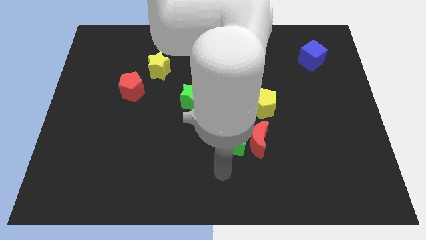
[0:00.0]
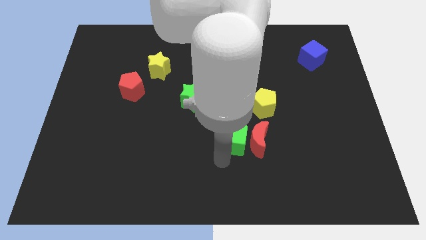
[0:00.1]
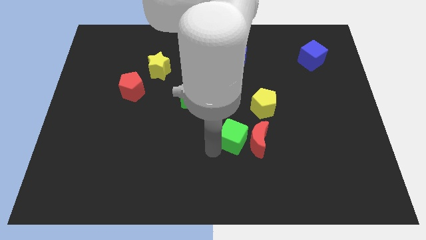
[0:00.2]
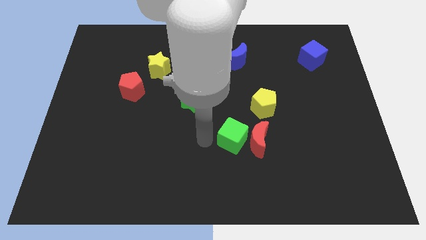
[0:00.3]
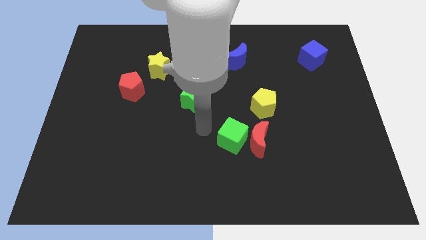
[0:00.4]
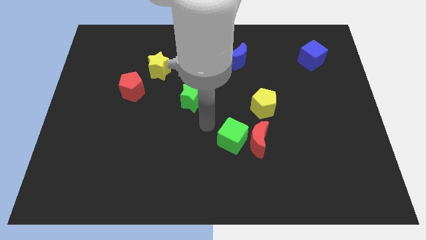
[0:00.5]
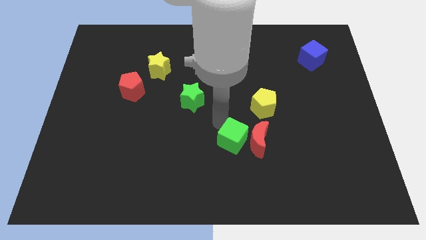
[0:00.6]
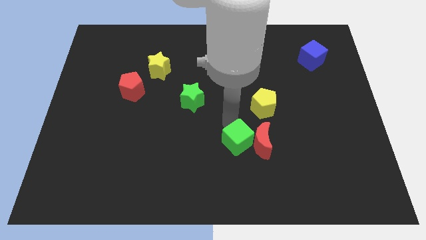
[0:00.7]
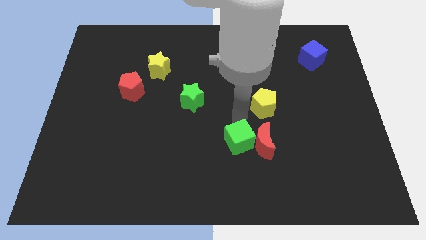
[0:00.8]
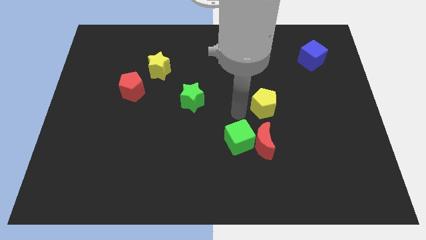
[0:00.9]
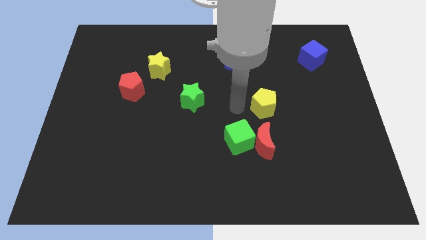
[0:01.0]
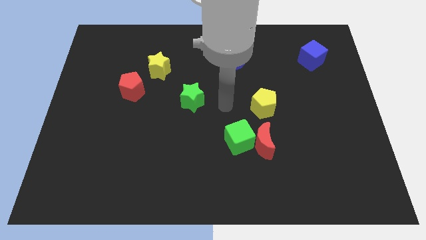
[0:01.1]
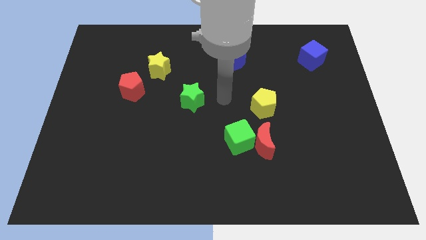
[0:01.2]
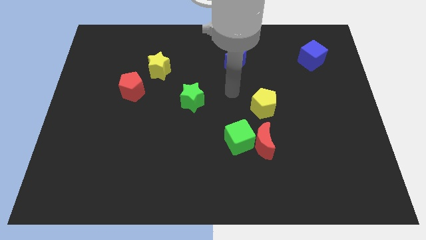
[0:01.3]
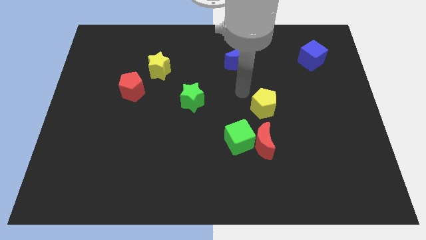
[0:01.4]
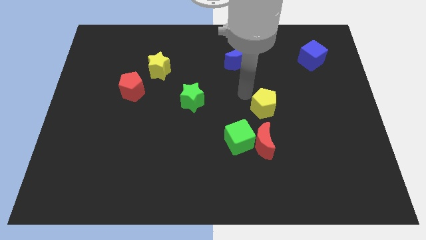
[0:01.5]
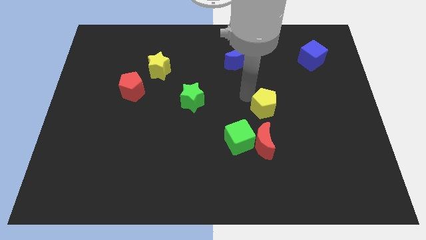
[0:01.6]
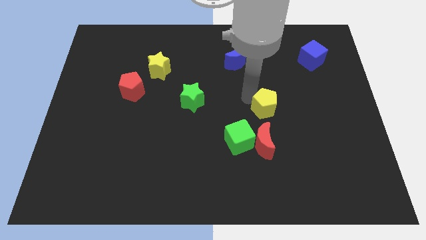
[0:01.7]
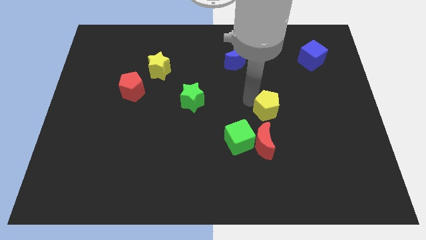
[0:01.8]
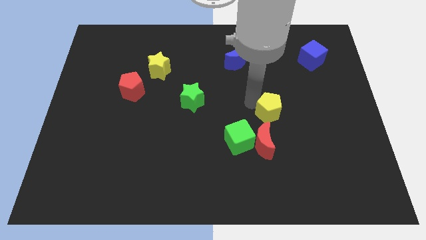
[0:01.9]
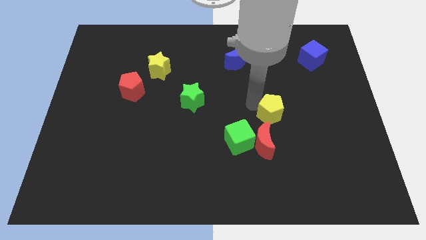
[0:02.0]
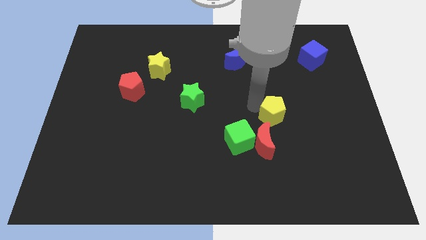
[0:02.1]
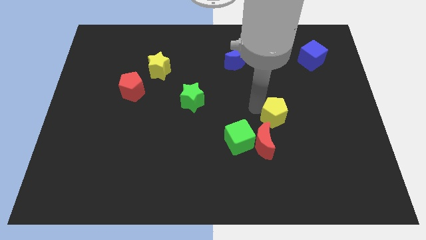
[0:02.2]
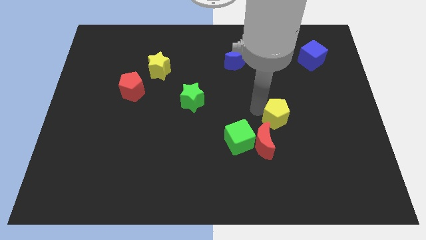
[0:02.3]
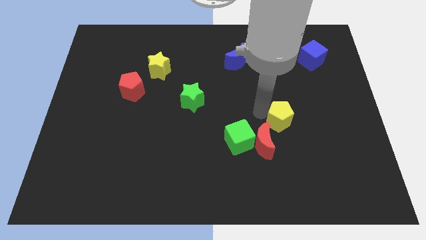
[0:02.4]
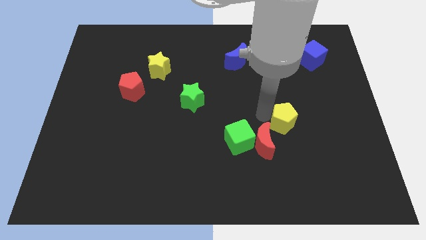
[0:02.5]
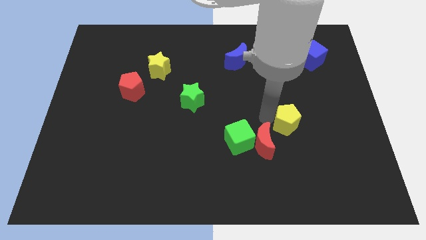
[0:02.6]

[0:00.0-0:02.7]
move the yellow pentagon a bit diagonally downwards and right

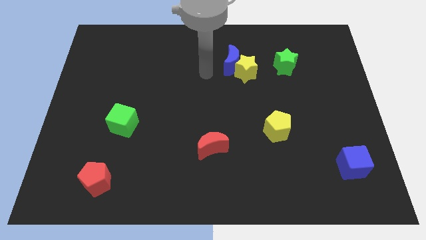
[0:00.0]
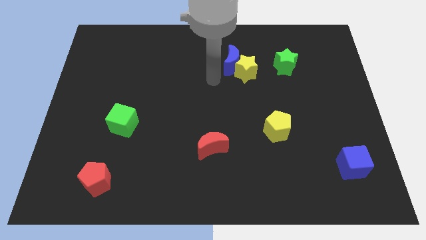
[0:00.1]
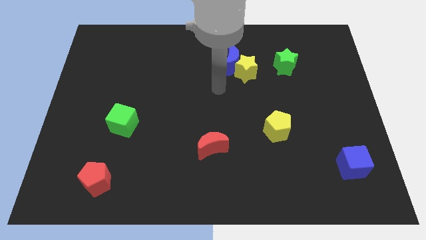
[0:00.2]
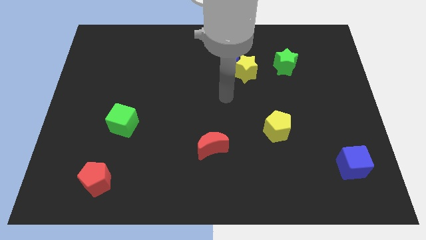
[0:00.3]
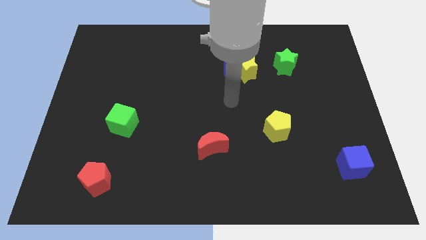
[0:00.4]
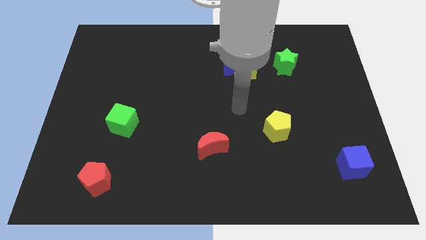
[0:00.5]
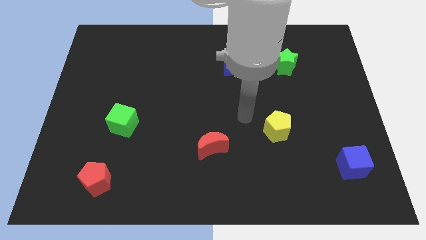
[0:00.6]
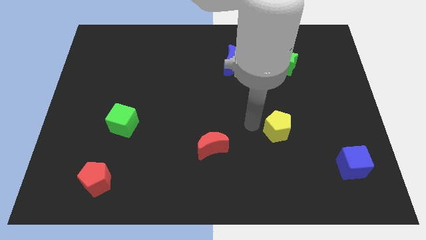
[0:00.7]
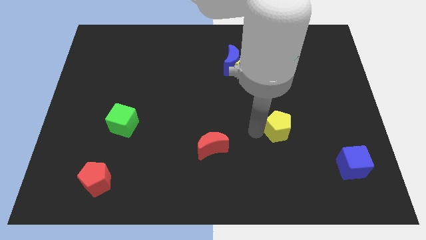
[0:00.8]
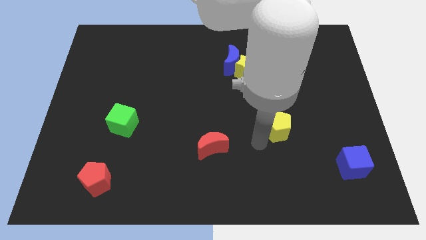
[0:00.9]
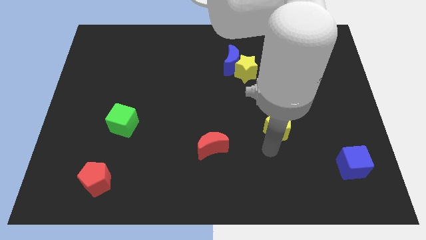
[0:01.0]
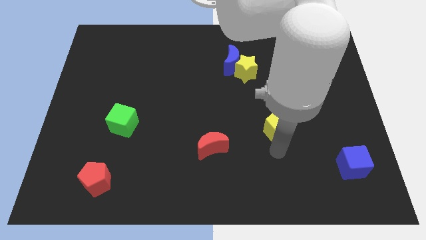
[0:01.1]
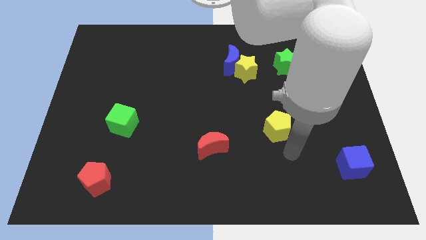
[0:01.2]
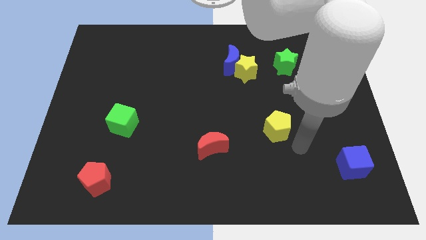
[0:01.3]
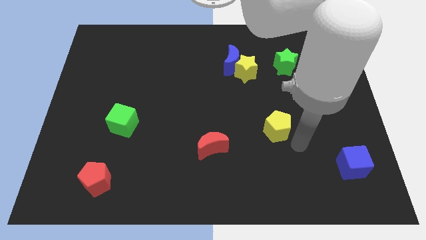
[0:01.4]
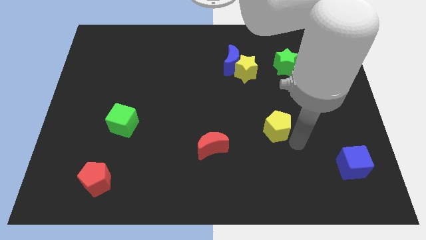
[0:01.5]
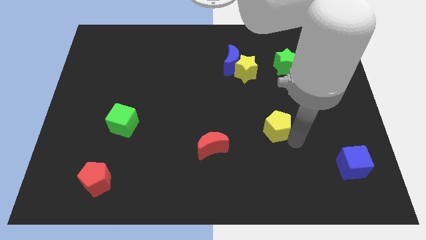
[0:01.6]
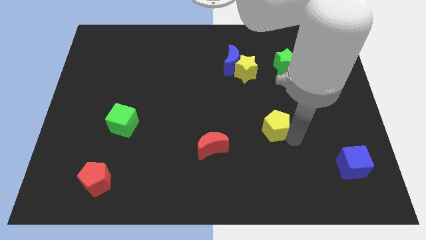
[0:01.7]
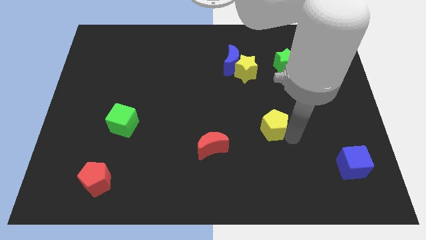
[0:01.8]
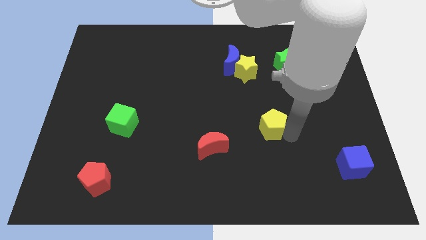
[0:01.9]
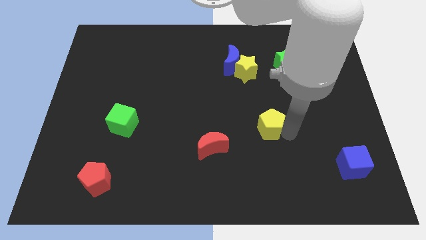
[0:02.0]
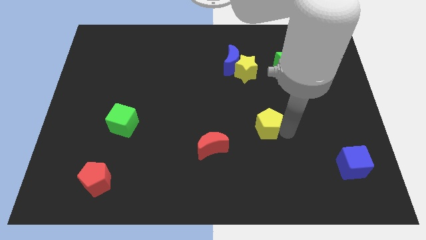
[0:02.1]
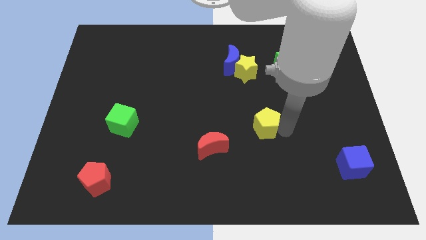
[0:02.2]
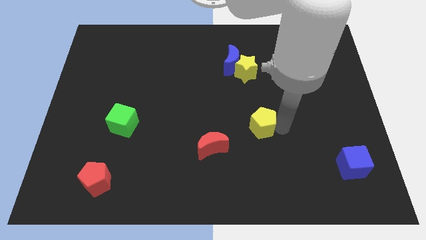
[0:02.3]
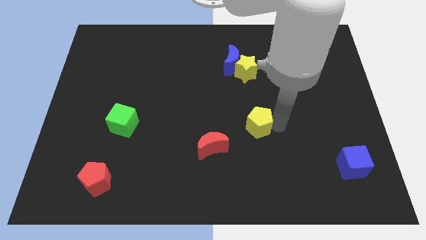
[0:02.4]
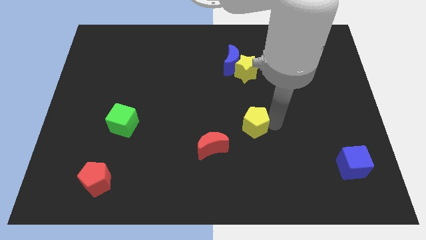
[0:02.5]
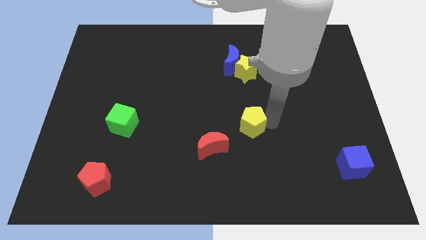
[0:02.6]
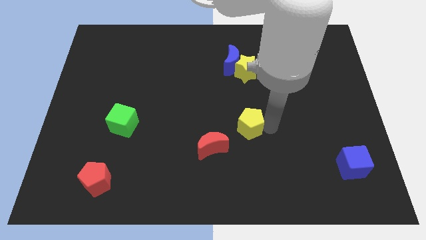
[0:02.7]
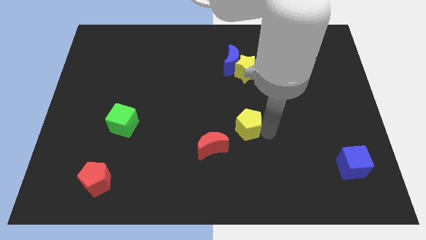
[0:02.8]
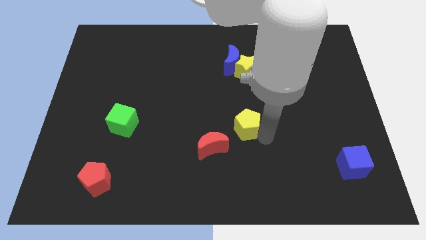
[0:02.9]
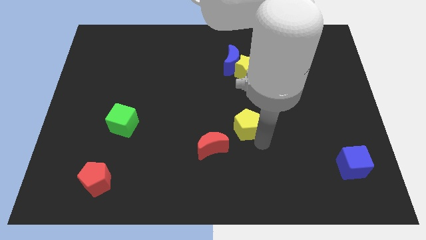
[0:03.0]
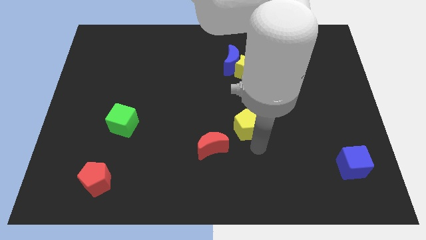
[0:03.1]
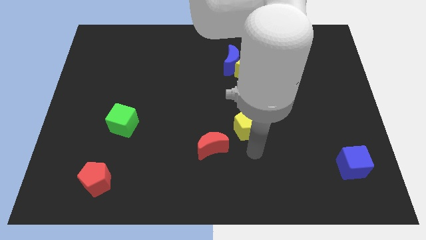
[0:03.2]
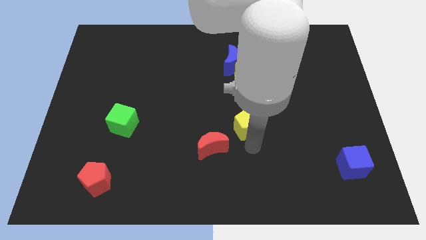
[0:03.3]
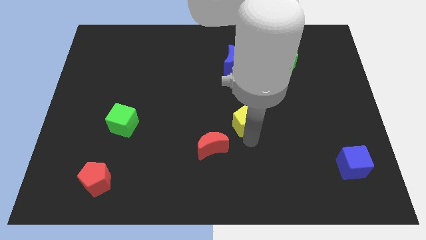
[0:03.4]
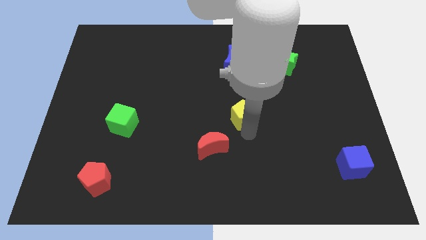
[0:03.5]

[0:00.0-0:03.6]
move the yellow pentagon somewhat upwards and to the left diagonally

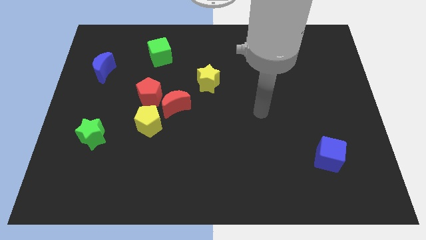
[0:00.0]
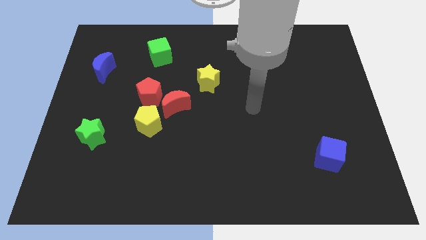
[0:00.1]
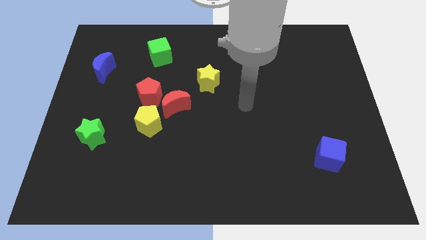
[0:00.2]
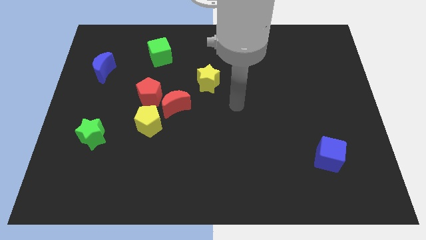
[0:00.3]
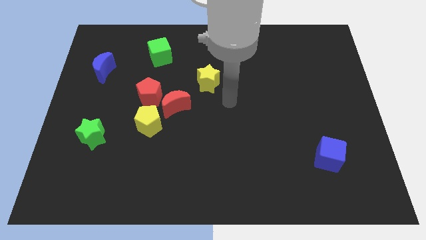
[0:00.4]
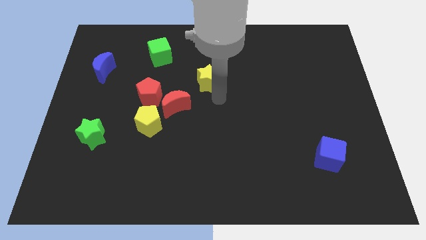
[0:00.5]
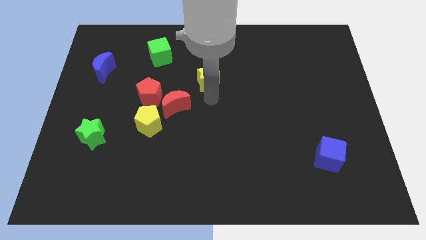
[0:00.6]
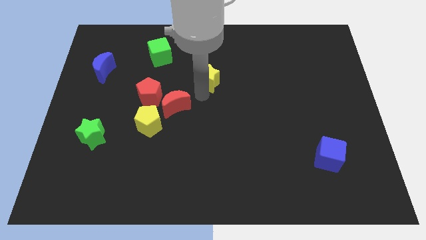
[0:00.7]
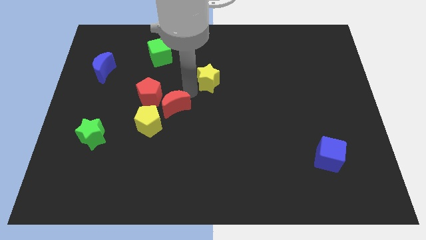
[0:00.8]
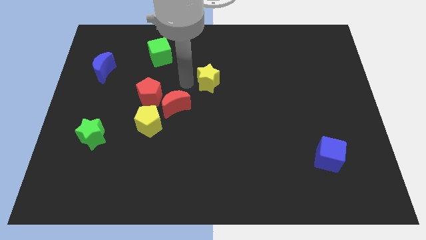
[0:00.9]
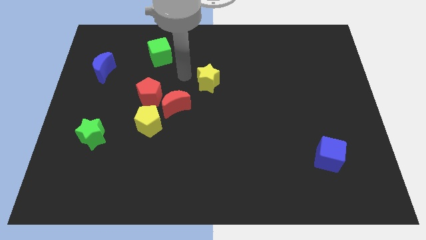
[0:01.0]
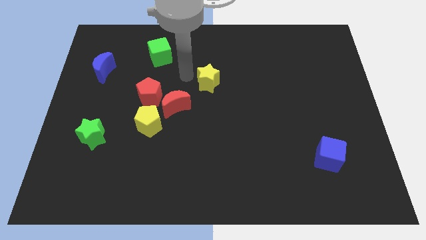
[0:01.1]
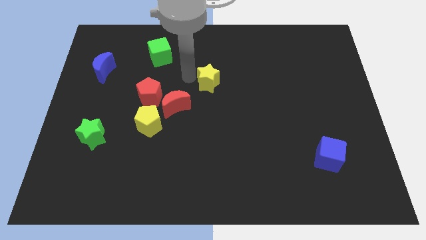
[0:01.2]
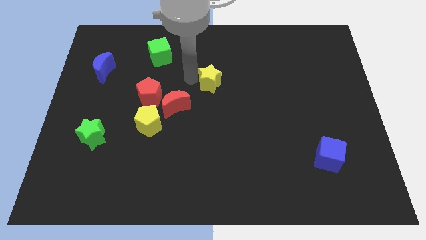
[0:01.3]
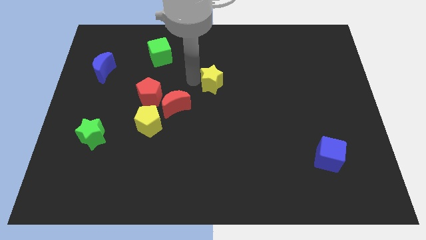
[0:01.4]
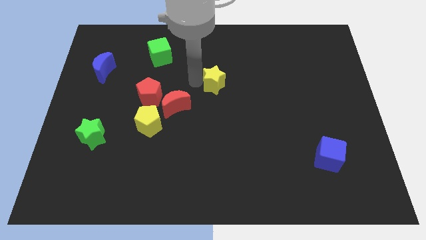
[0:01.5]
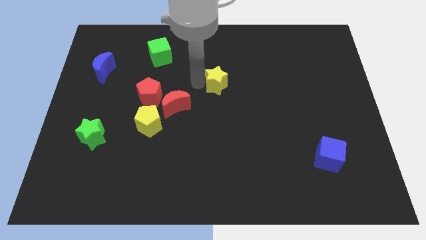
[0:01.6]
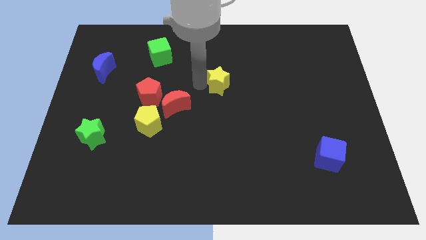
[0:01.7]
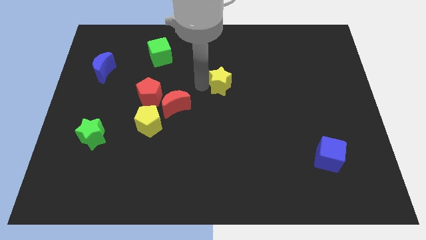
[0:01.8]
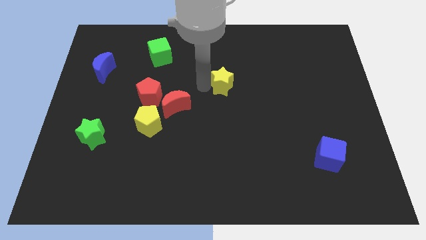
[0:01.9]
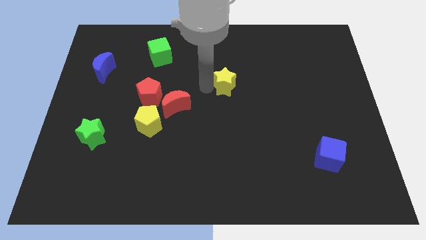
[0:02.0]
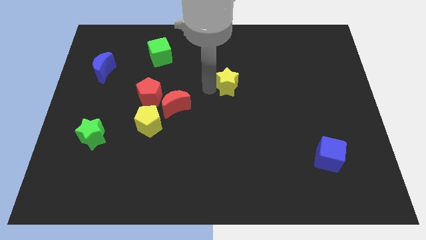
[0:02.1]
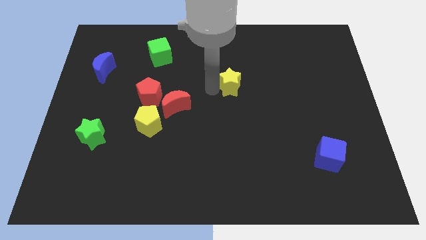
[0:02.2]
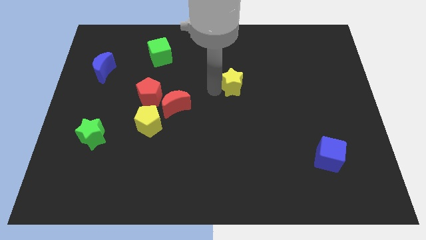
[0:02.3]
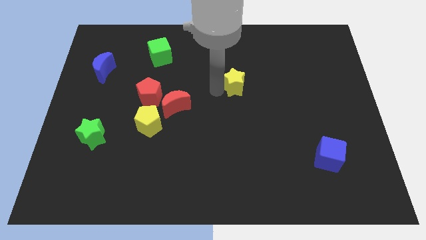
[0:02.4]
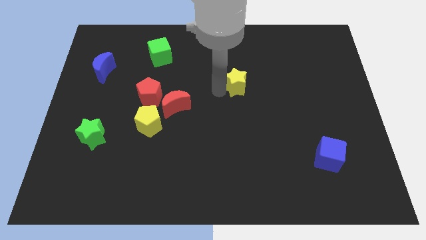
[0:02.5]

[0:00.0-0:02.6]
slightly slide the yellow star right
